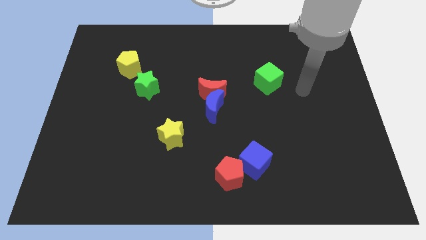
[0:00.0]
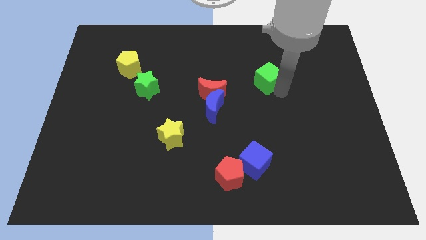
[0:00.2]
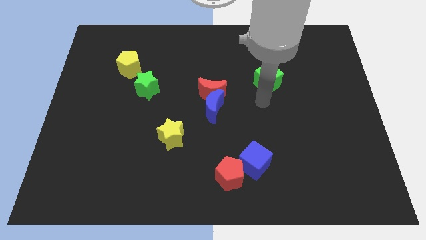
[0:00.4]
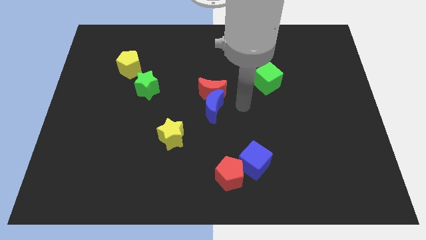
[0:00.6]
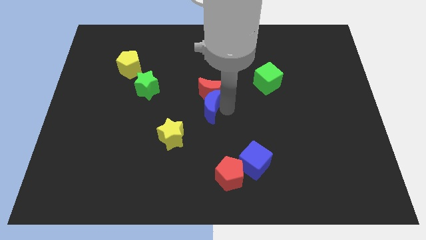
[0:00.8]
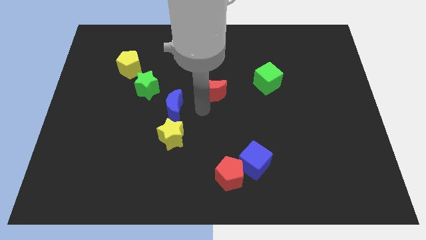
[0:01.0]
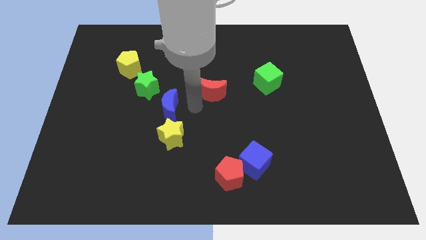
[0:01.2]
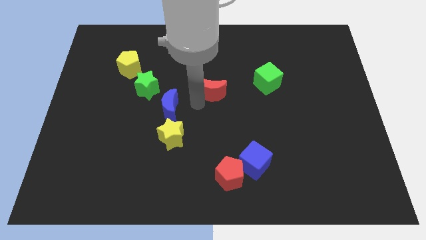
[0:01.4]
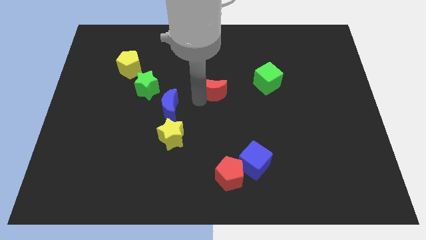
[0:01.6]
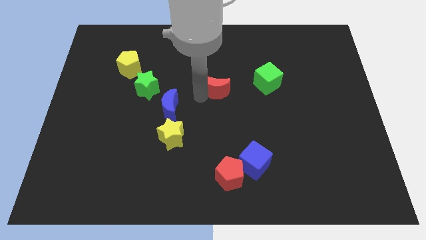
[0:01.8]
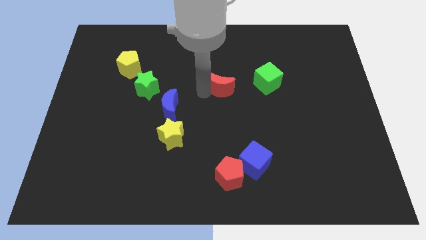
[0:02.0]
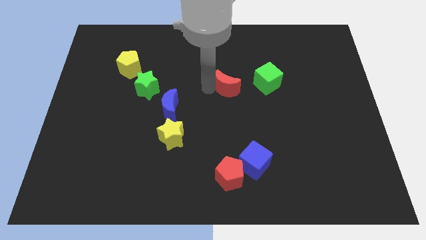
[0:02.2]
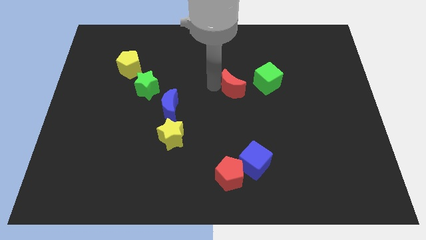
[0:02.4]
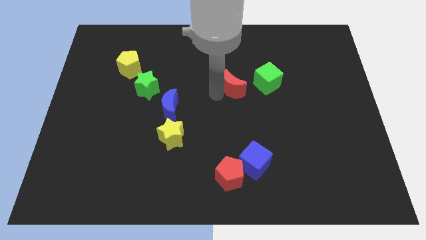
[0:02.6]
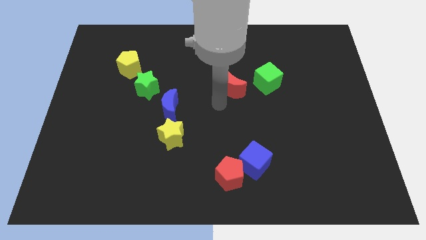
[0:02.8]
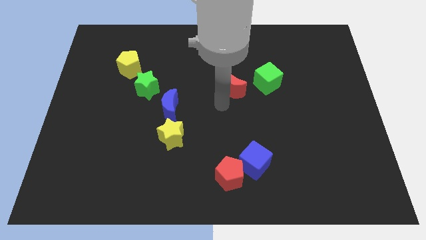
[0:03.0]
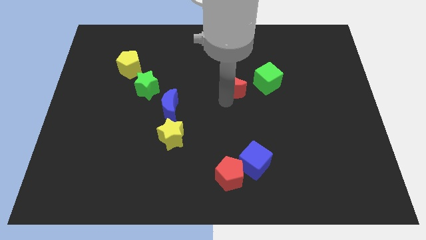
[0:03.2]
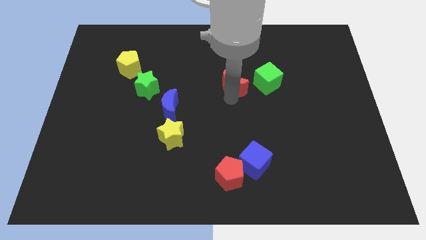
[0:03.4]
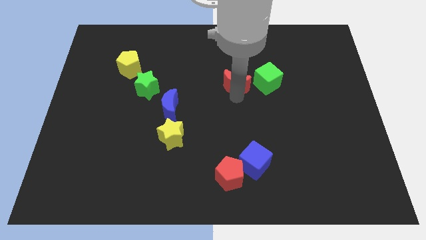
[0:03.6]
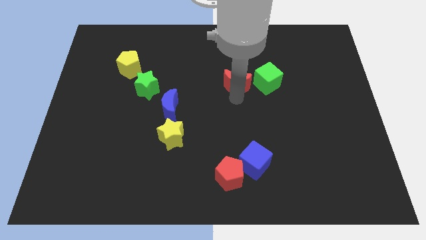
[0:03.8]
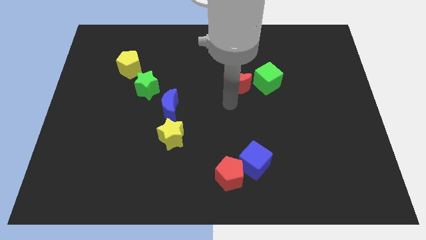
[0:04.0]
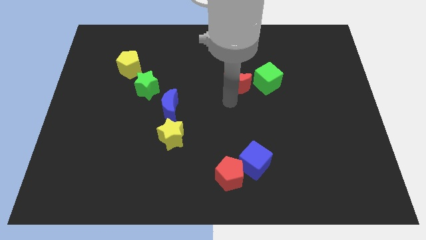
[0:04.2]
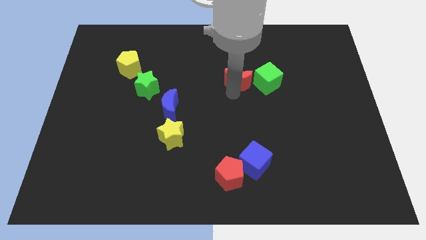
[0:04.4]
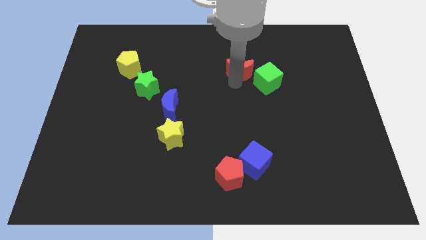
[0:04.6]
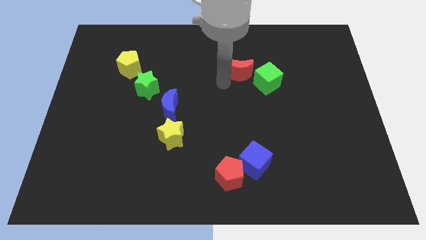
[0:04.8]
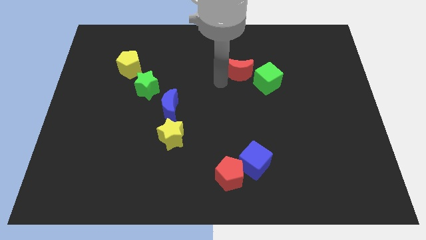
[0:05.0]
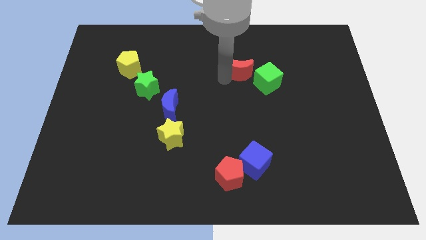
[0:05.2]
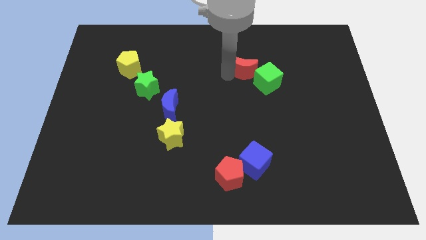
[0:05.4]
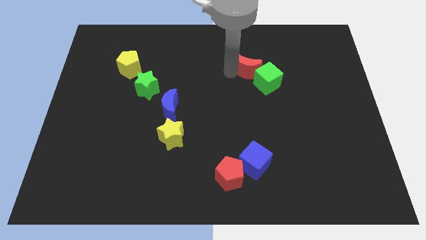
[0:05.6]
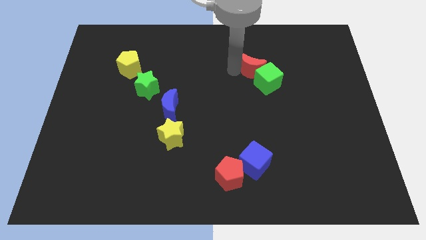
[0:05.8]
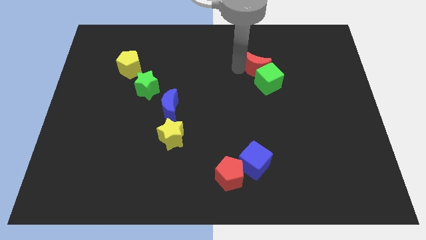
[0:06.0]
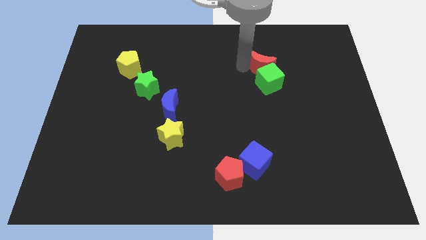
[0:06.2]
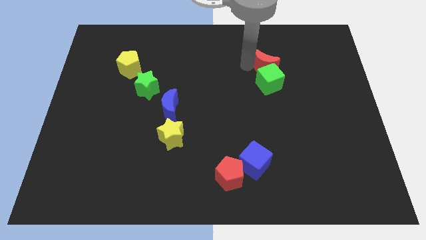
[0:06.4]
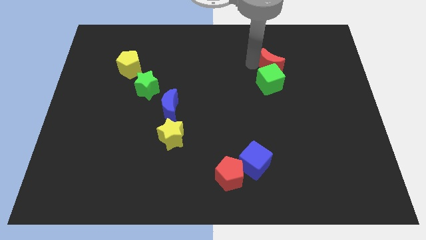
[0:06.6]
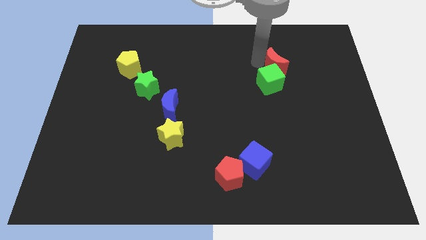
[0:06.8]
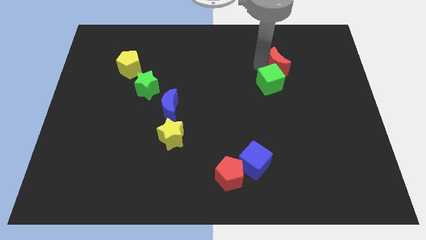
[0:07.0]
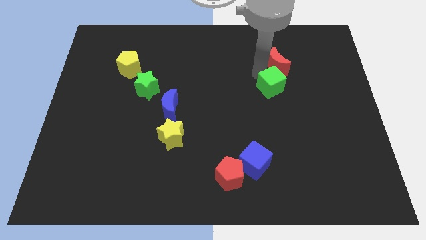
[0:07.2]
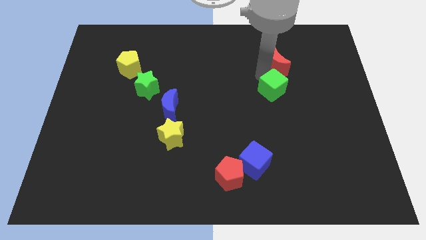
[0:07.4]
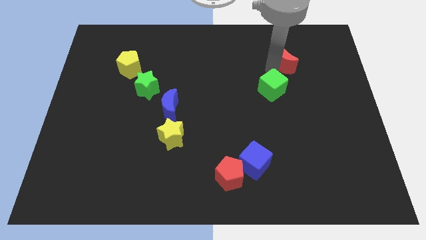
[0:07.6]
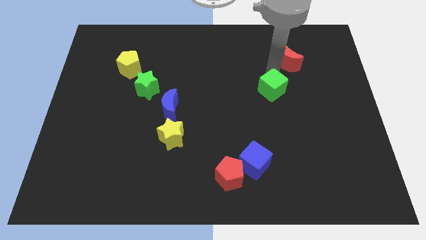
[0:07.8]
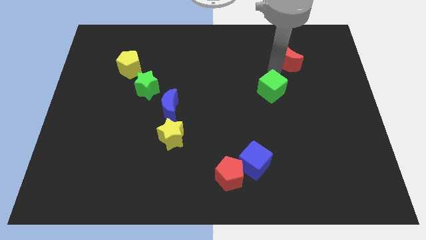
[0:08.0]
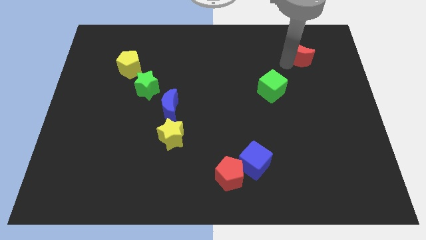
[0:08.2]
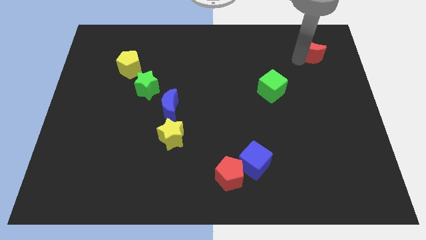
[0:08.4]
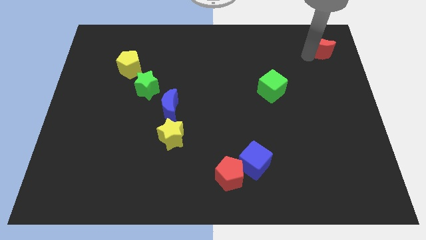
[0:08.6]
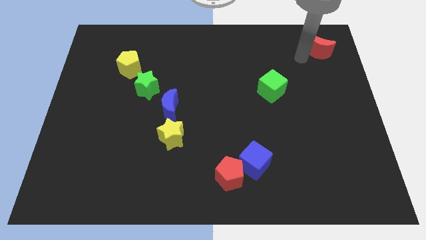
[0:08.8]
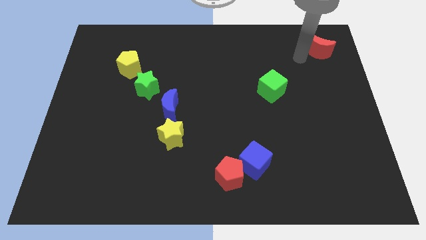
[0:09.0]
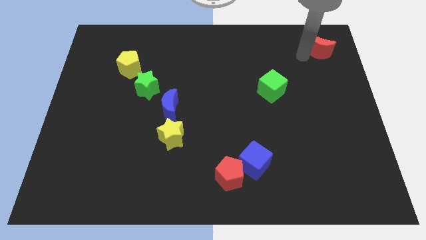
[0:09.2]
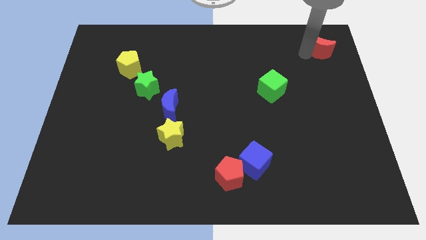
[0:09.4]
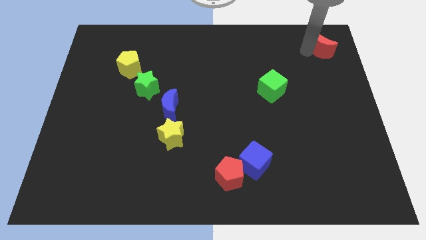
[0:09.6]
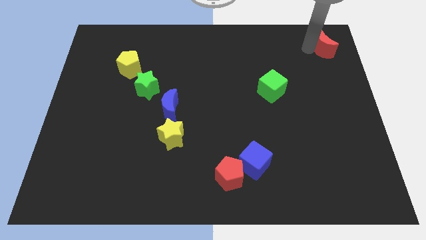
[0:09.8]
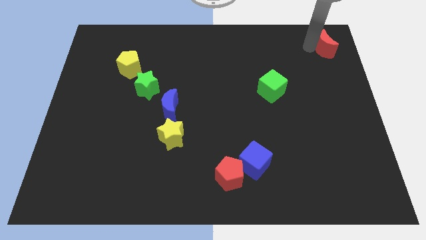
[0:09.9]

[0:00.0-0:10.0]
push the red moon to the upper right corner

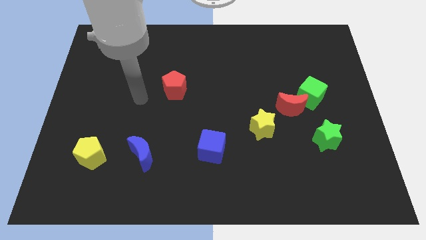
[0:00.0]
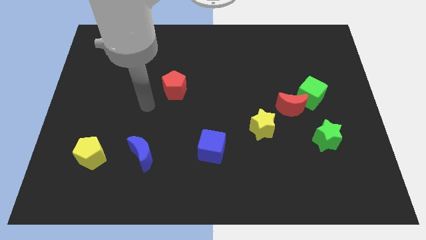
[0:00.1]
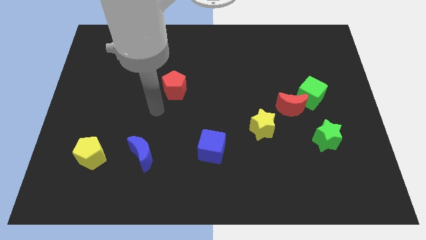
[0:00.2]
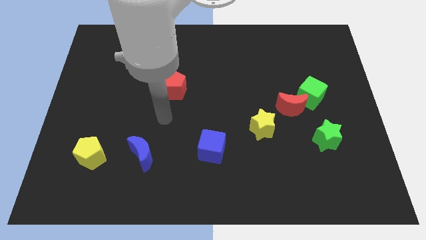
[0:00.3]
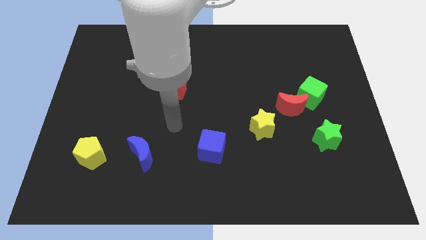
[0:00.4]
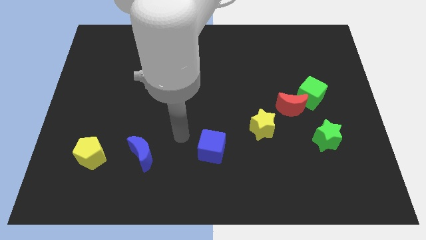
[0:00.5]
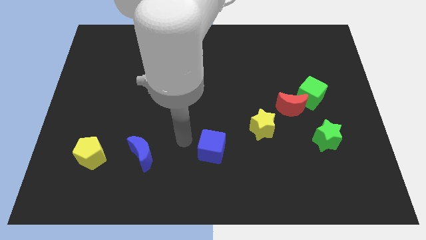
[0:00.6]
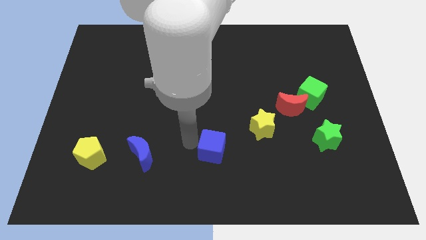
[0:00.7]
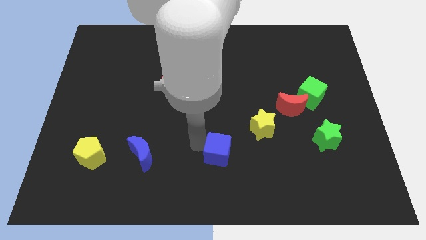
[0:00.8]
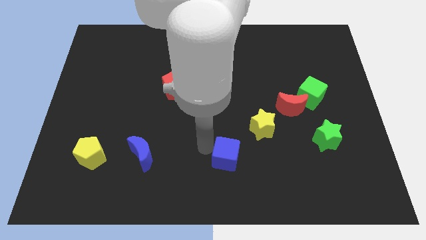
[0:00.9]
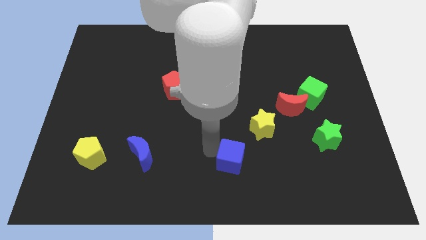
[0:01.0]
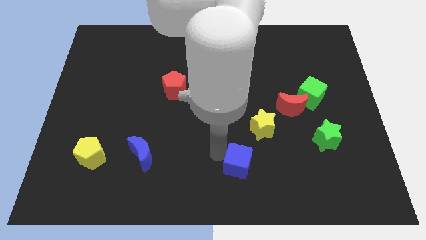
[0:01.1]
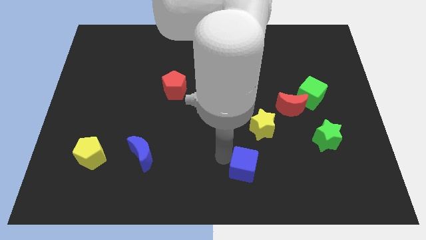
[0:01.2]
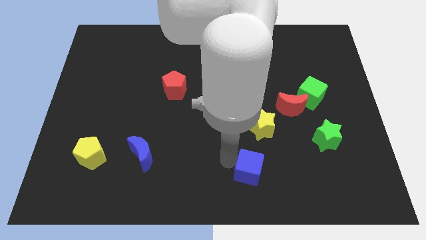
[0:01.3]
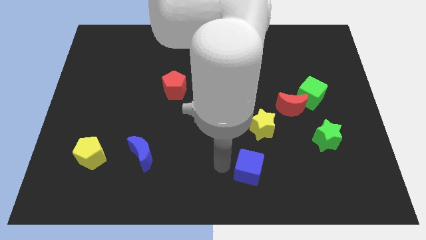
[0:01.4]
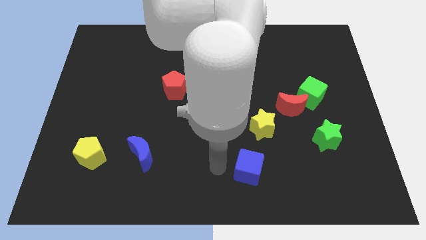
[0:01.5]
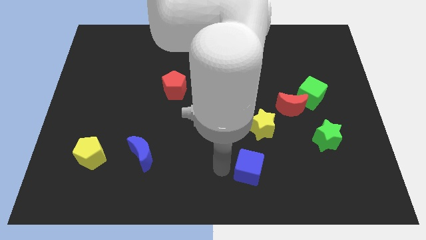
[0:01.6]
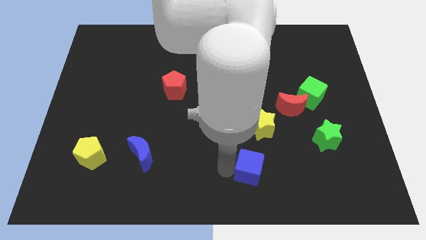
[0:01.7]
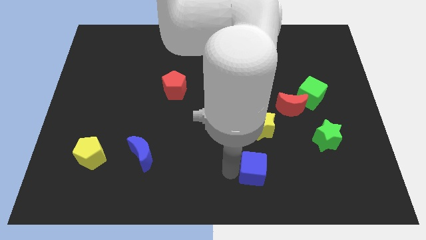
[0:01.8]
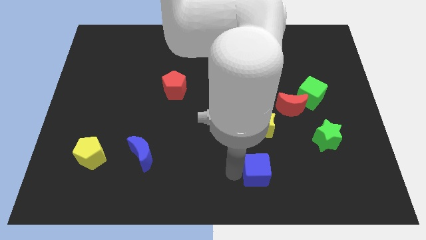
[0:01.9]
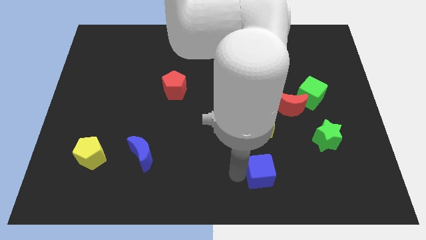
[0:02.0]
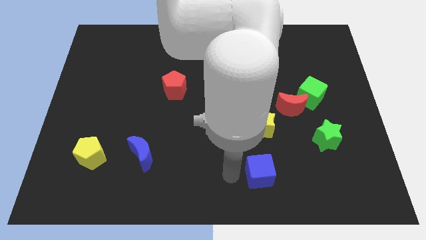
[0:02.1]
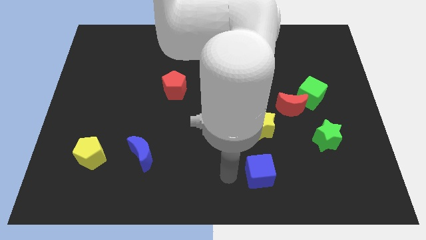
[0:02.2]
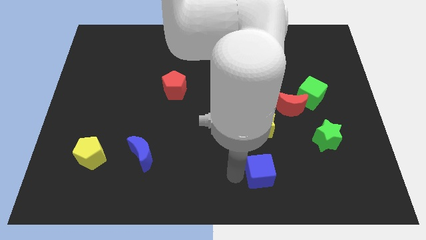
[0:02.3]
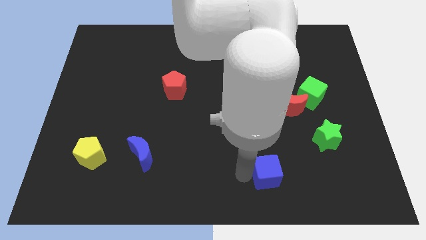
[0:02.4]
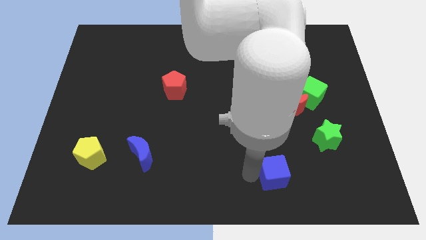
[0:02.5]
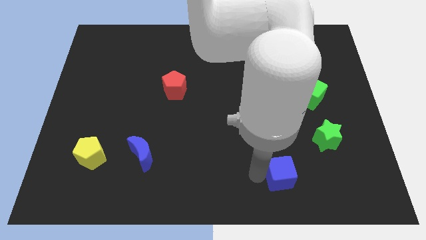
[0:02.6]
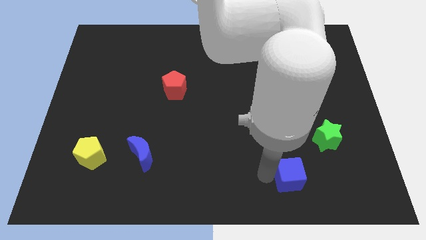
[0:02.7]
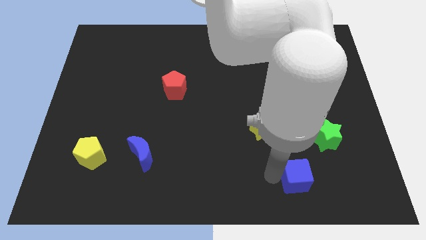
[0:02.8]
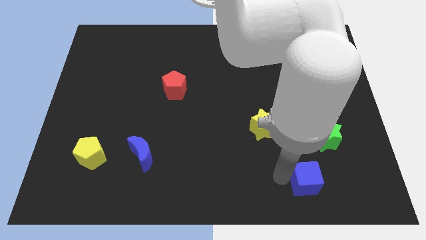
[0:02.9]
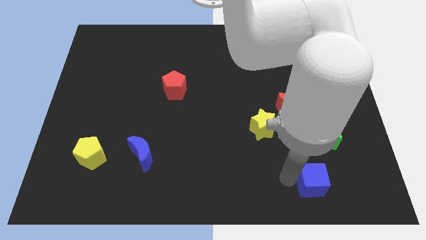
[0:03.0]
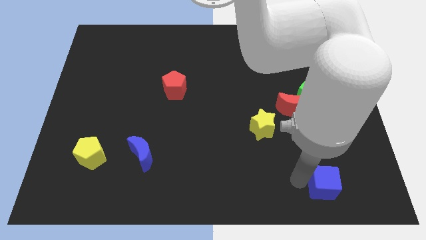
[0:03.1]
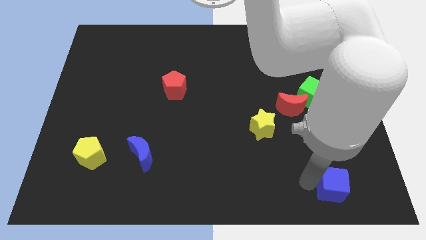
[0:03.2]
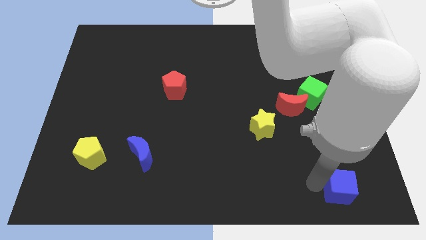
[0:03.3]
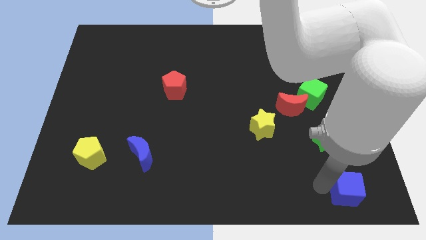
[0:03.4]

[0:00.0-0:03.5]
put the blue cube to the bottom right corner
